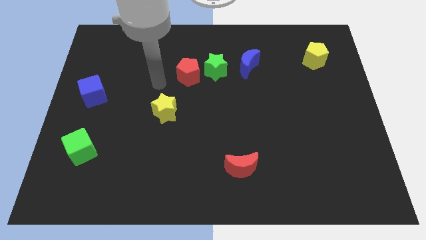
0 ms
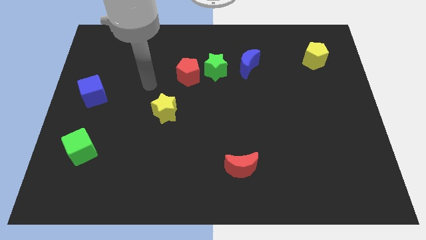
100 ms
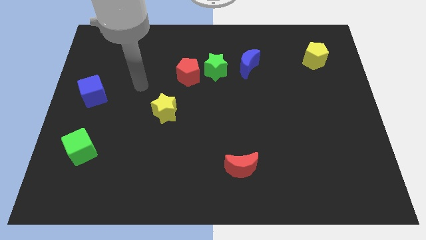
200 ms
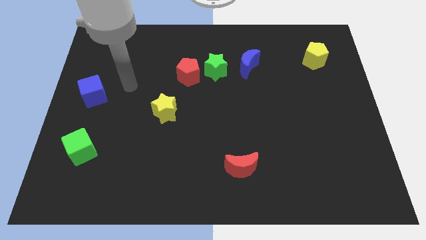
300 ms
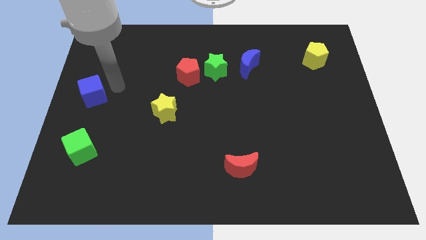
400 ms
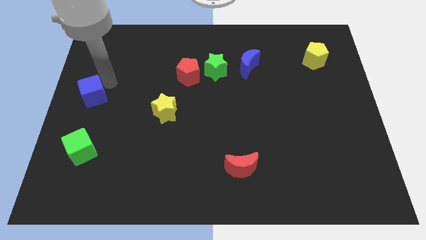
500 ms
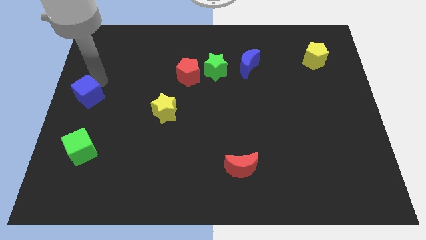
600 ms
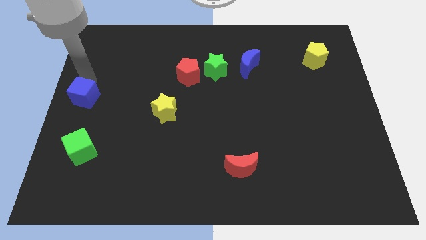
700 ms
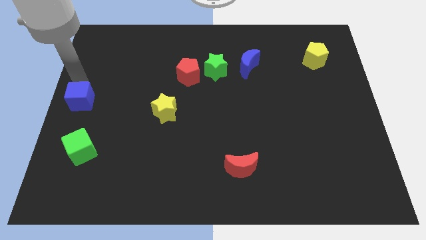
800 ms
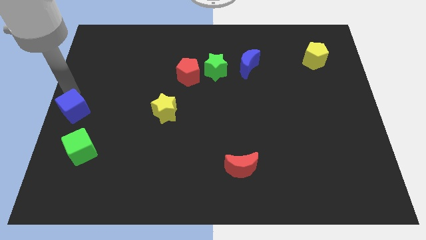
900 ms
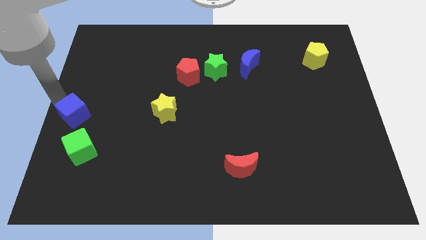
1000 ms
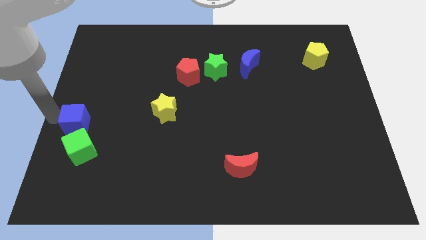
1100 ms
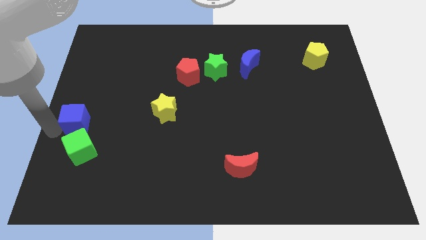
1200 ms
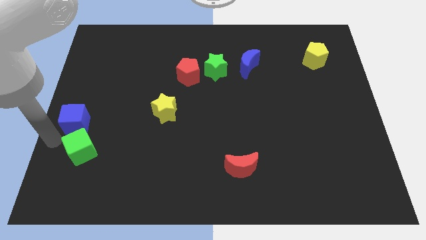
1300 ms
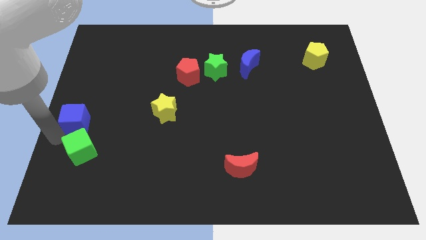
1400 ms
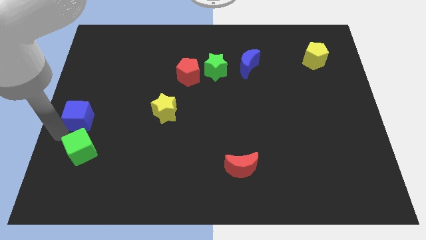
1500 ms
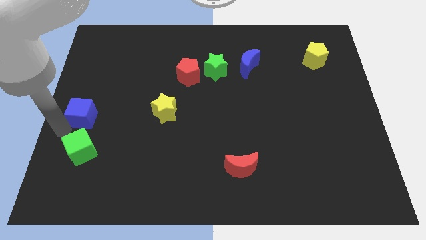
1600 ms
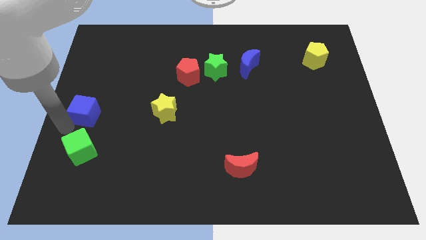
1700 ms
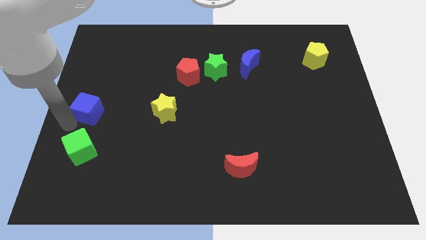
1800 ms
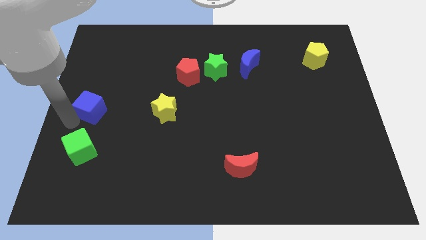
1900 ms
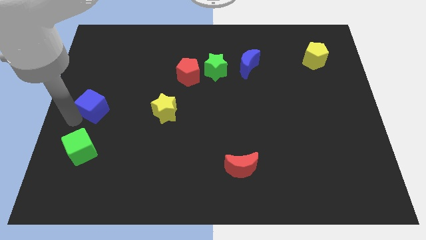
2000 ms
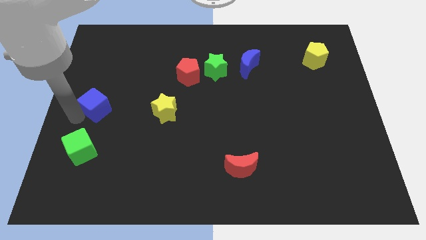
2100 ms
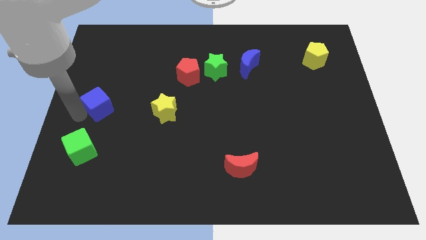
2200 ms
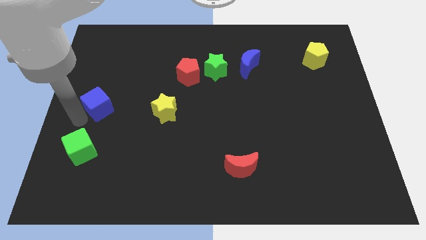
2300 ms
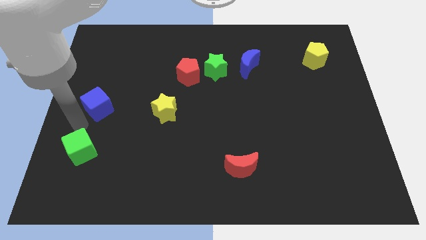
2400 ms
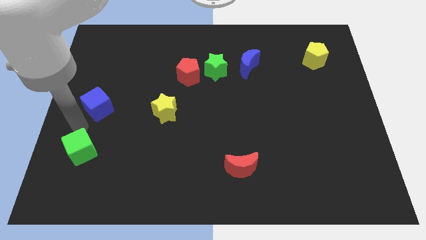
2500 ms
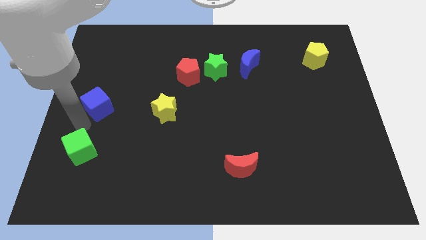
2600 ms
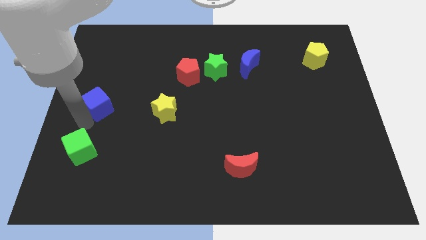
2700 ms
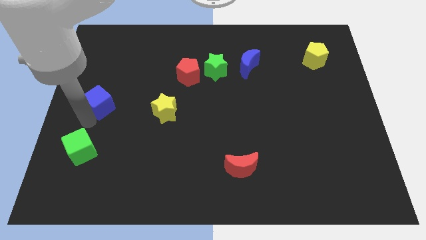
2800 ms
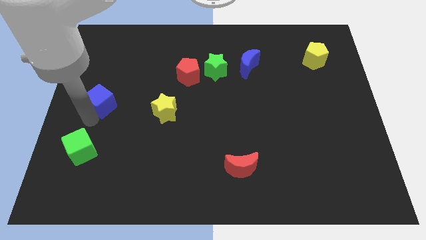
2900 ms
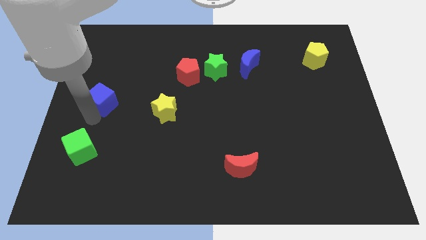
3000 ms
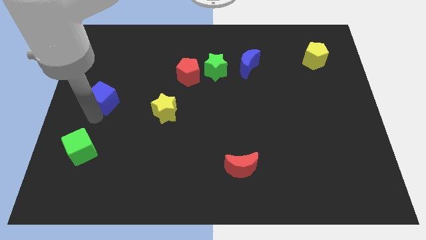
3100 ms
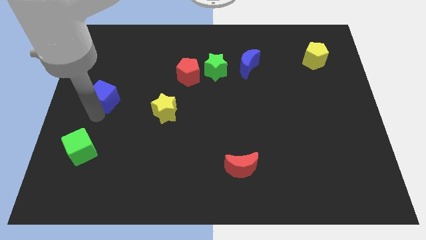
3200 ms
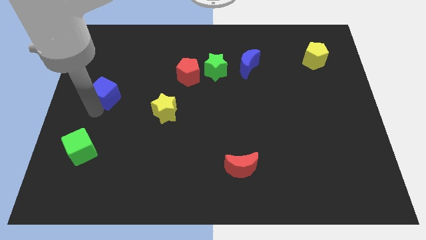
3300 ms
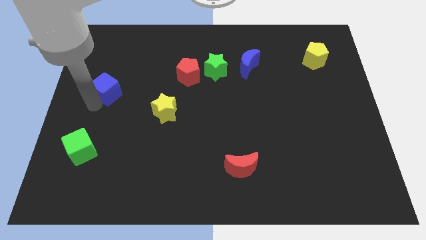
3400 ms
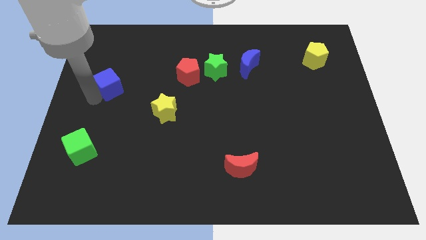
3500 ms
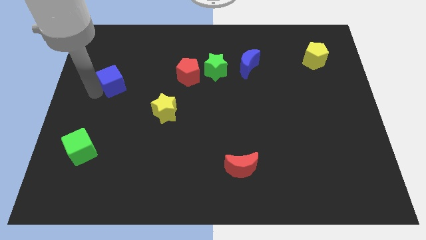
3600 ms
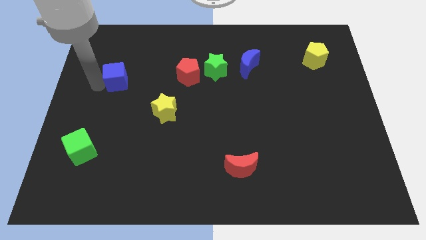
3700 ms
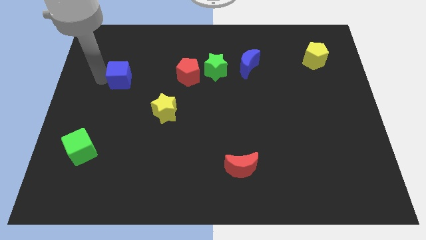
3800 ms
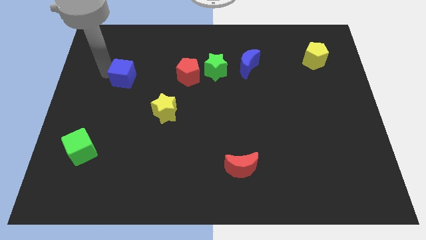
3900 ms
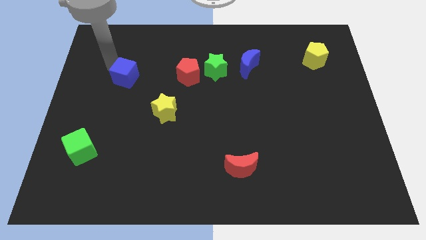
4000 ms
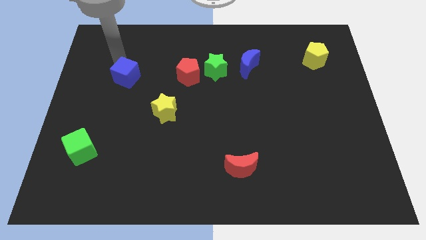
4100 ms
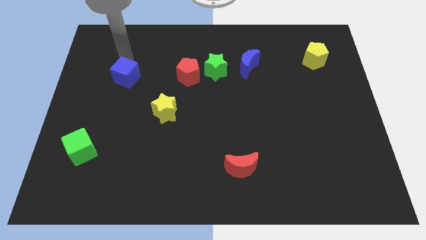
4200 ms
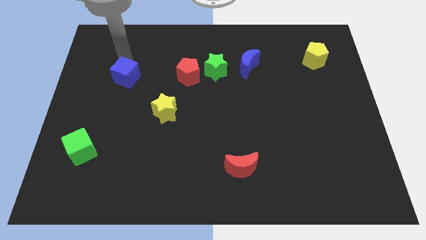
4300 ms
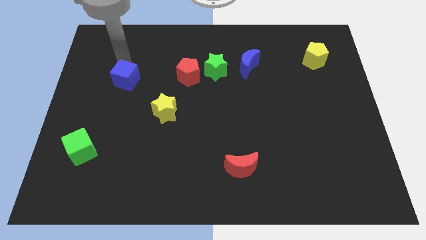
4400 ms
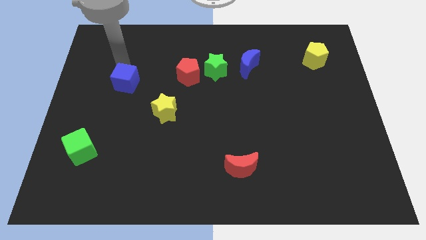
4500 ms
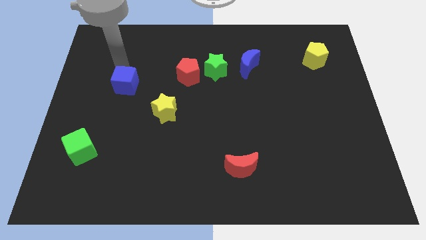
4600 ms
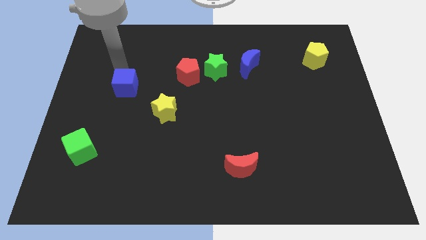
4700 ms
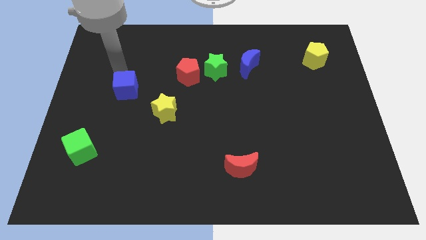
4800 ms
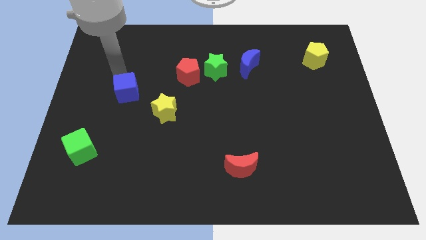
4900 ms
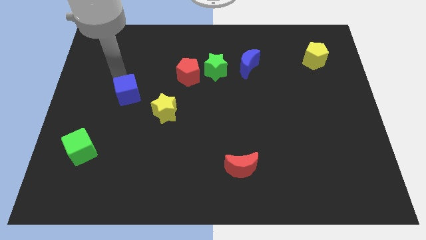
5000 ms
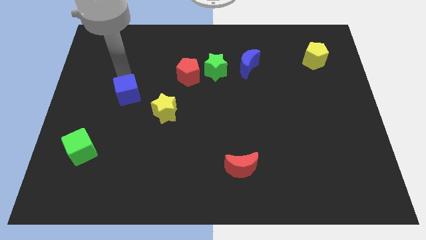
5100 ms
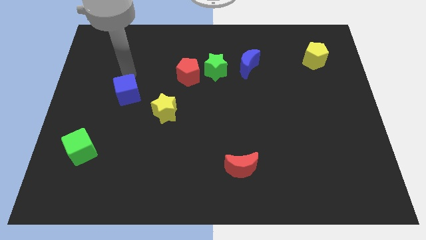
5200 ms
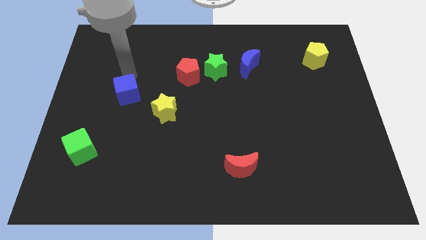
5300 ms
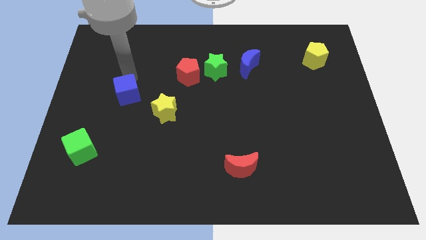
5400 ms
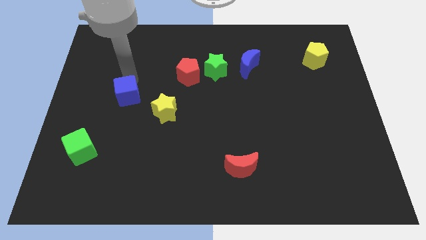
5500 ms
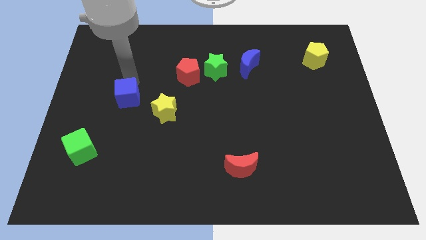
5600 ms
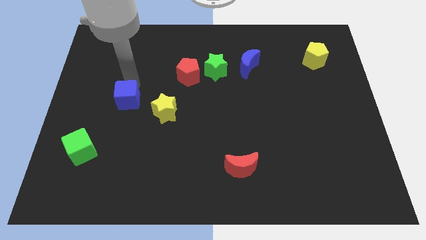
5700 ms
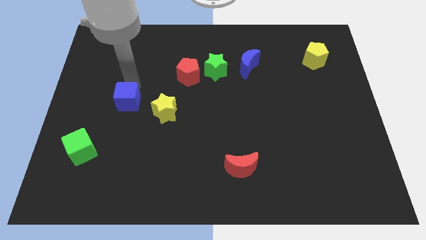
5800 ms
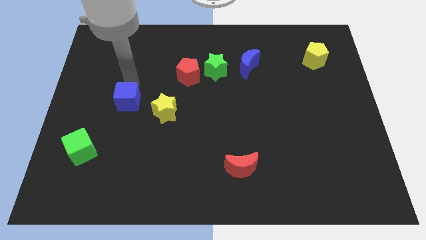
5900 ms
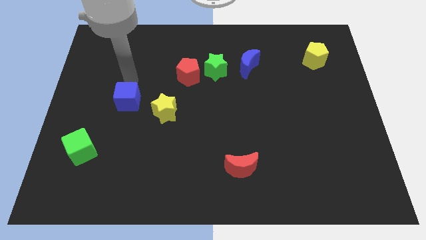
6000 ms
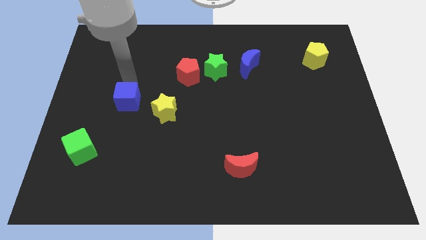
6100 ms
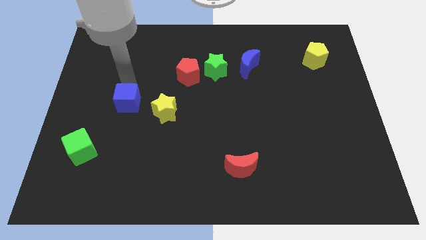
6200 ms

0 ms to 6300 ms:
slightly push the blue cube down and right diagonally

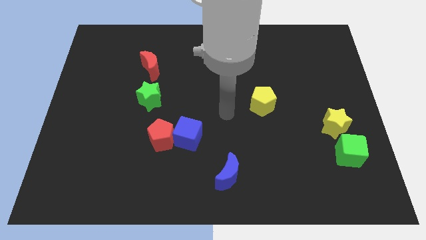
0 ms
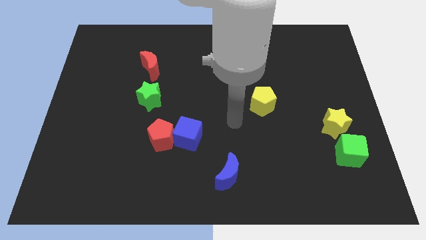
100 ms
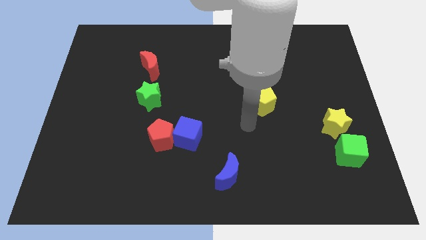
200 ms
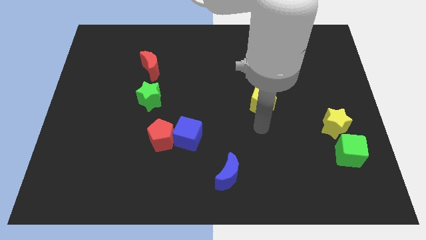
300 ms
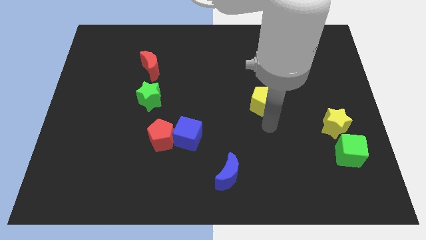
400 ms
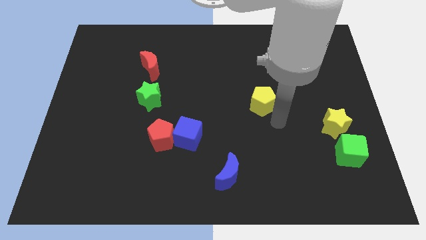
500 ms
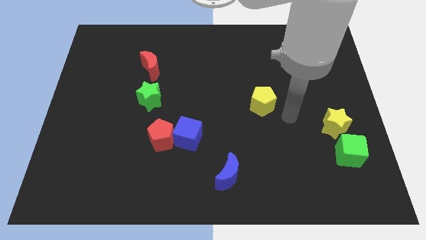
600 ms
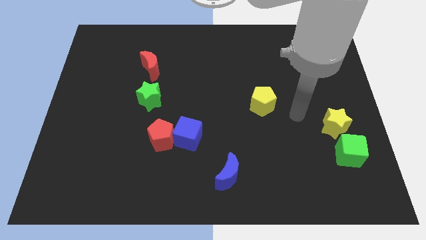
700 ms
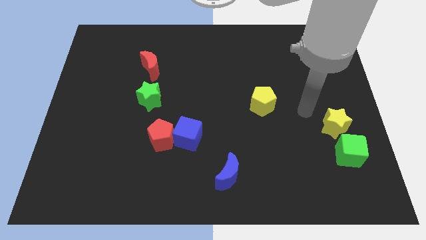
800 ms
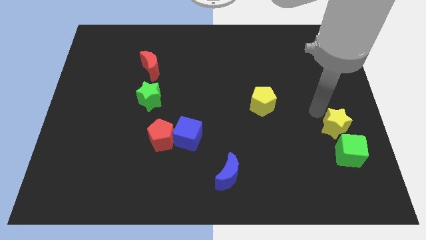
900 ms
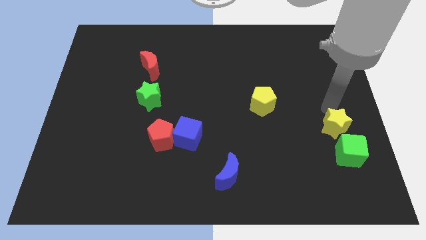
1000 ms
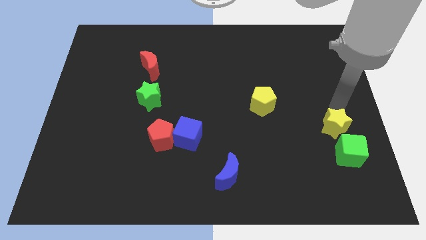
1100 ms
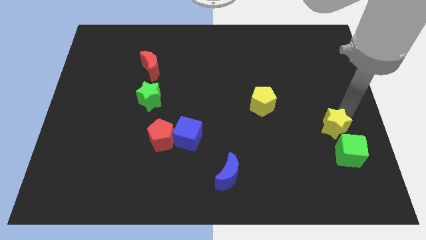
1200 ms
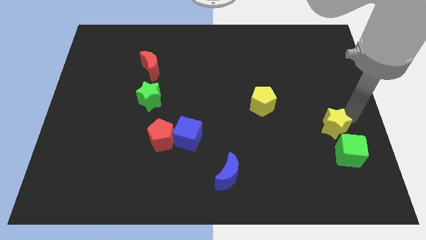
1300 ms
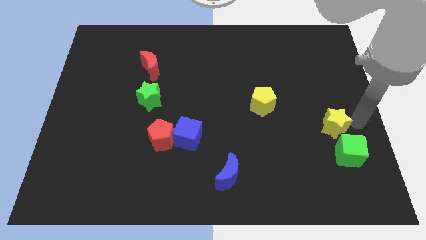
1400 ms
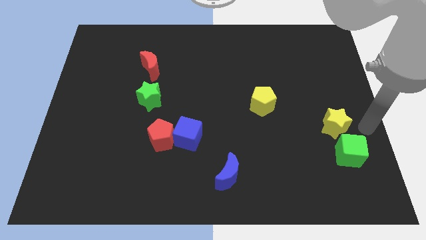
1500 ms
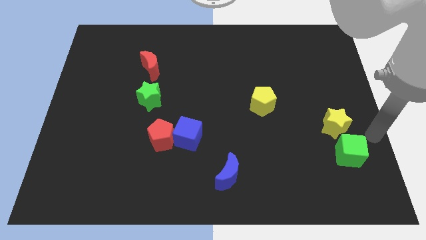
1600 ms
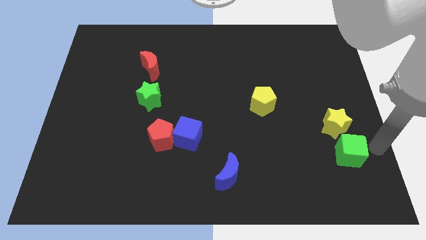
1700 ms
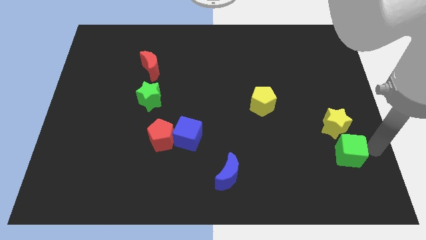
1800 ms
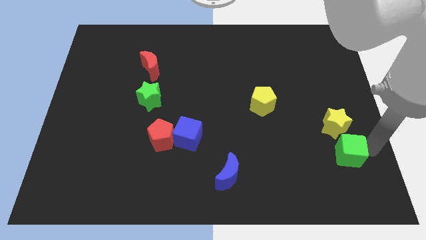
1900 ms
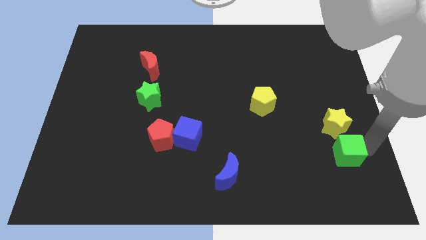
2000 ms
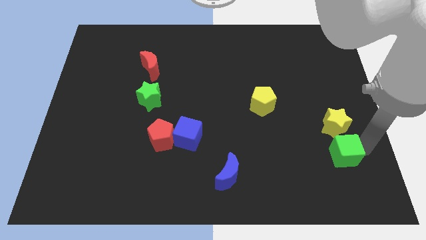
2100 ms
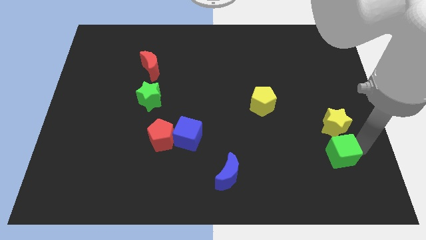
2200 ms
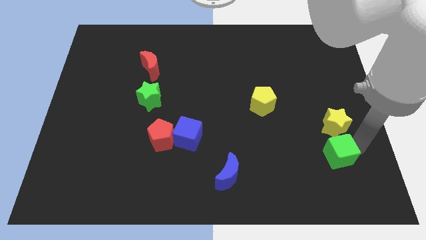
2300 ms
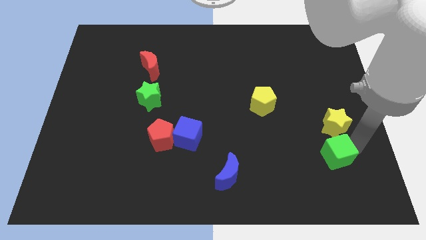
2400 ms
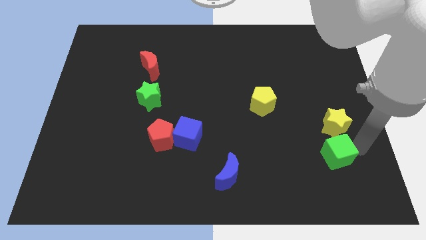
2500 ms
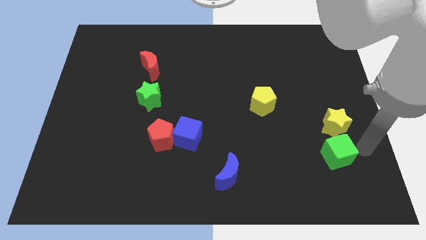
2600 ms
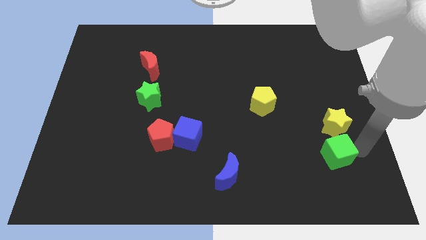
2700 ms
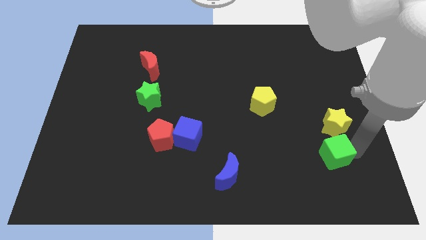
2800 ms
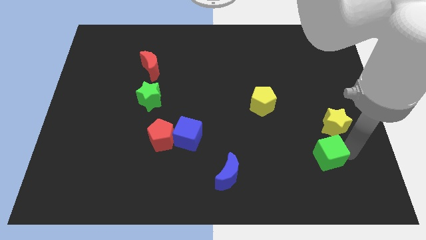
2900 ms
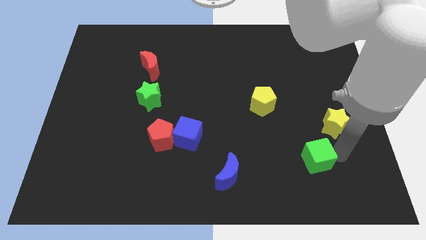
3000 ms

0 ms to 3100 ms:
push the green cube slightly to the left
